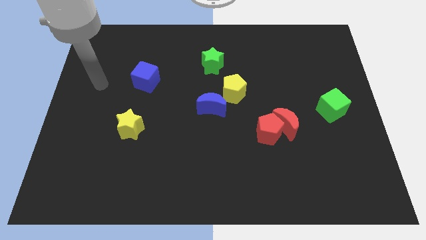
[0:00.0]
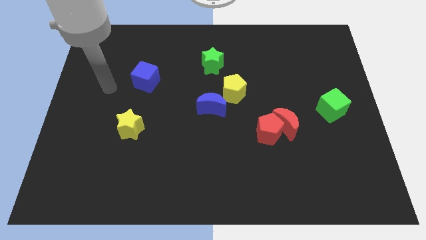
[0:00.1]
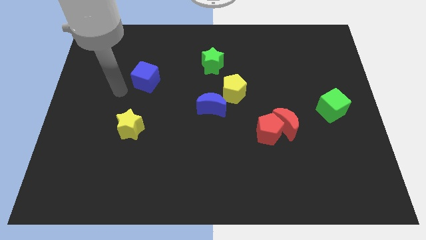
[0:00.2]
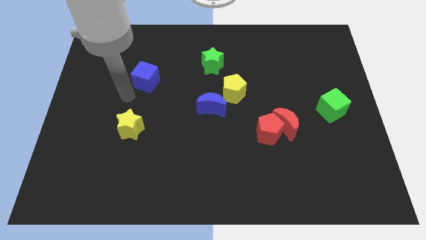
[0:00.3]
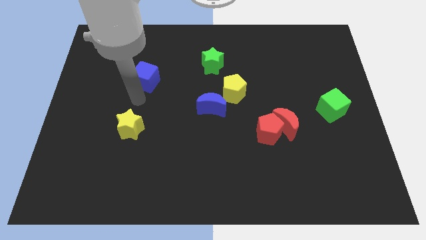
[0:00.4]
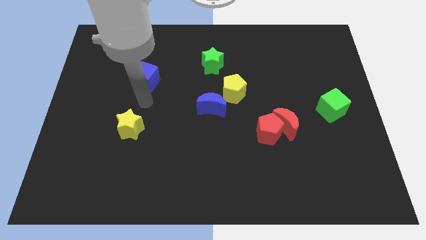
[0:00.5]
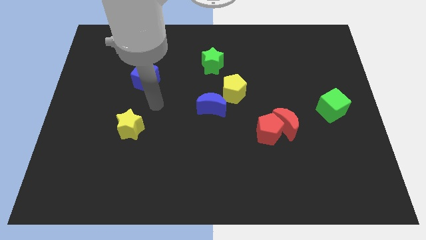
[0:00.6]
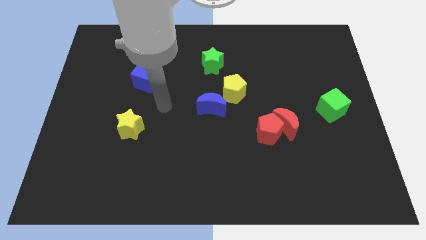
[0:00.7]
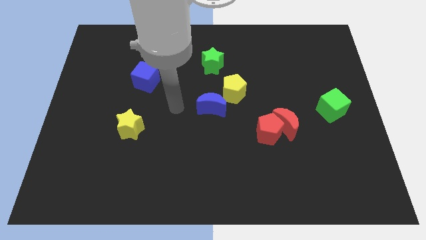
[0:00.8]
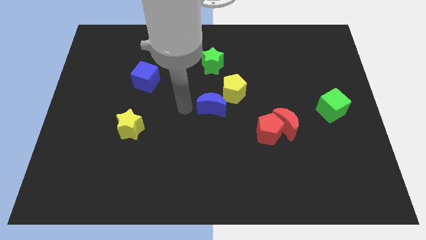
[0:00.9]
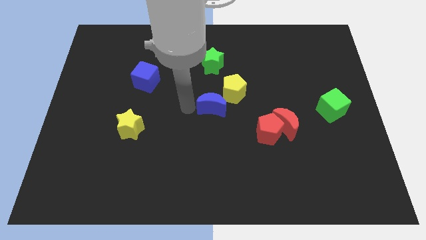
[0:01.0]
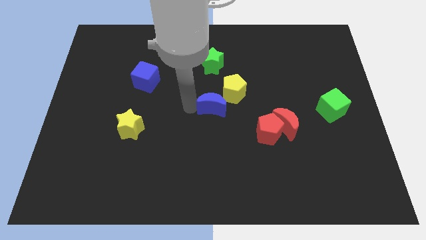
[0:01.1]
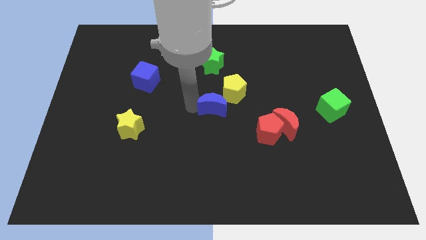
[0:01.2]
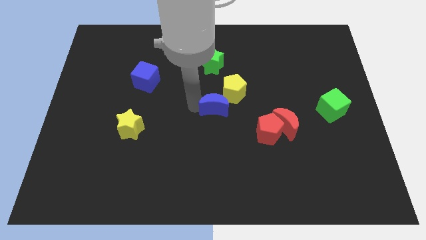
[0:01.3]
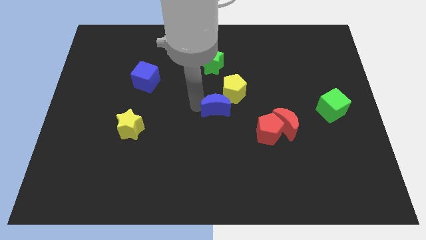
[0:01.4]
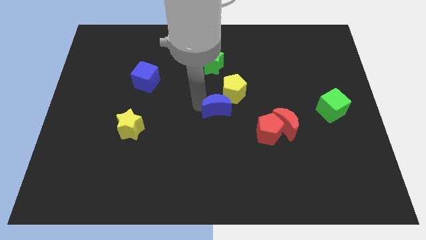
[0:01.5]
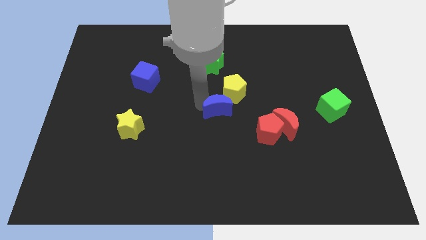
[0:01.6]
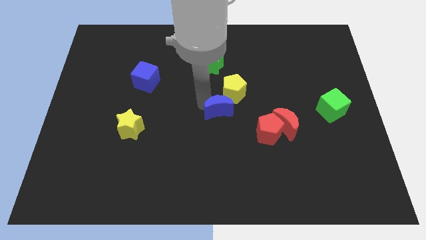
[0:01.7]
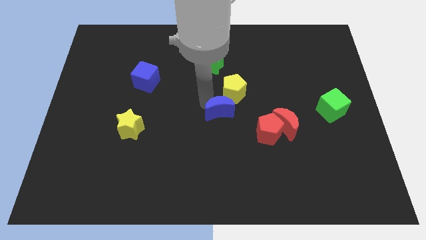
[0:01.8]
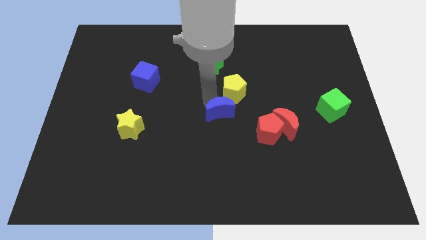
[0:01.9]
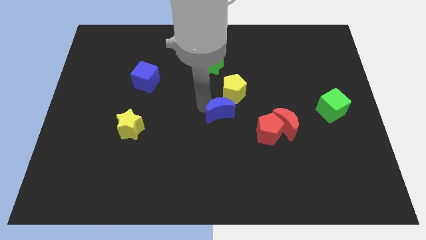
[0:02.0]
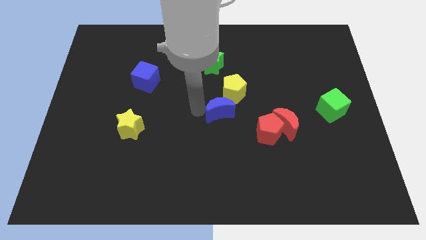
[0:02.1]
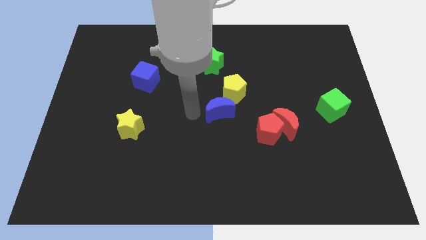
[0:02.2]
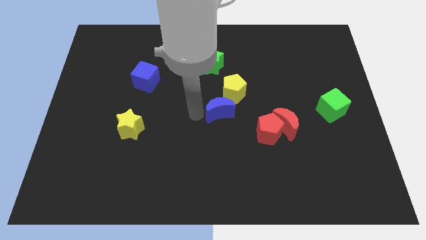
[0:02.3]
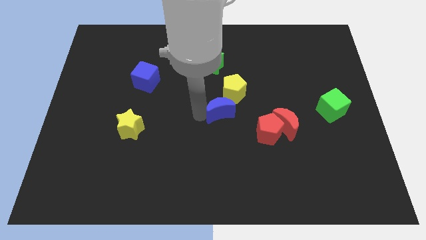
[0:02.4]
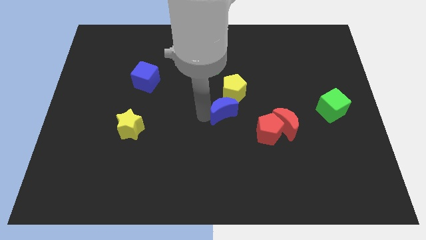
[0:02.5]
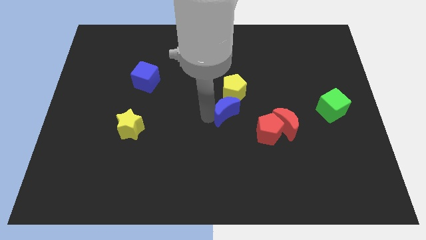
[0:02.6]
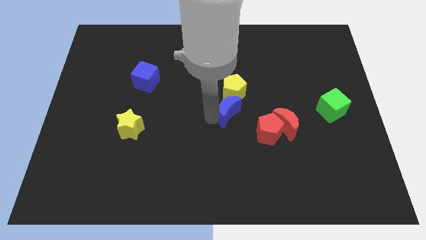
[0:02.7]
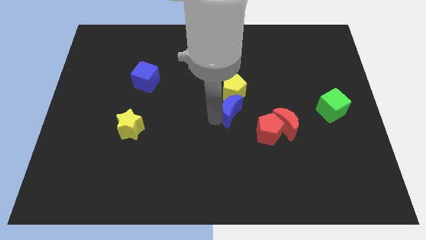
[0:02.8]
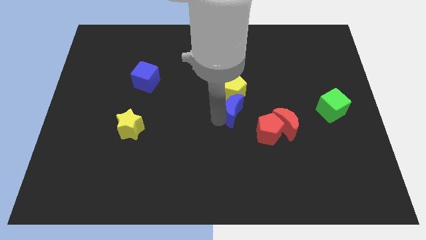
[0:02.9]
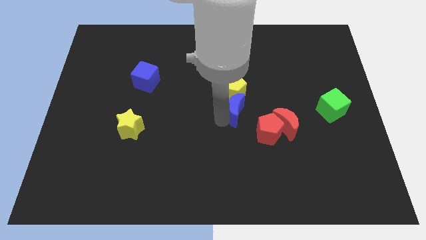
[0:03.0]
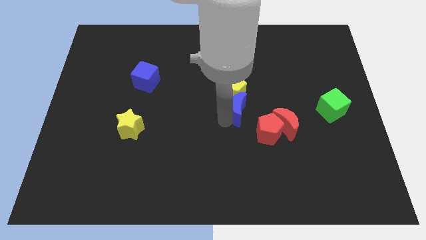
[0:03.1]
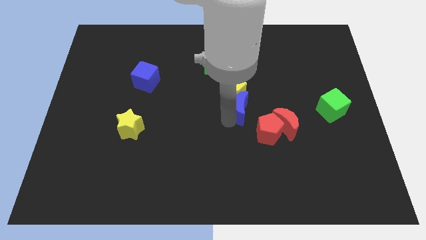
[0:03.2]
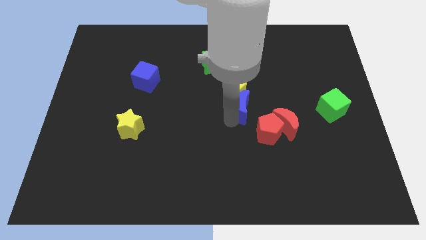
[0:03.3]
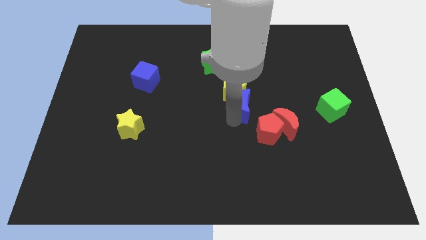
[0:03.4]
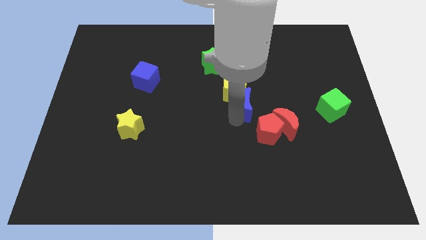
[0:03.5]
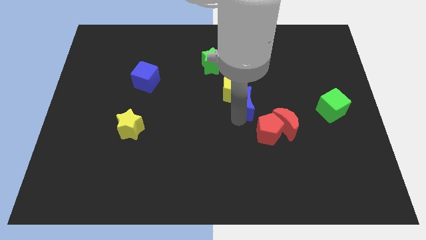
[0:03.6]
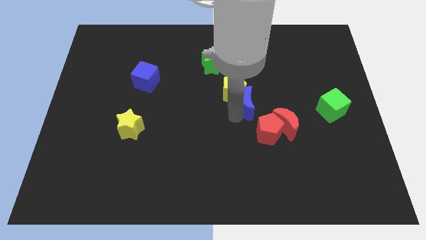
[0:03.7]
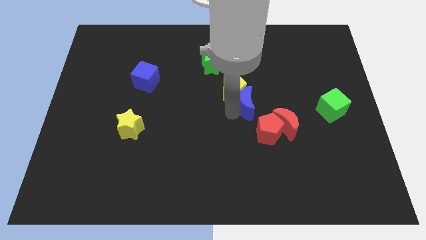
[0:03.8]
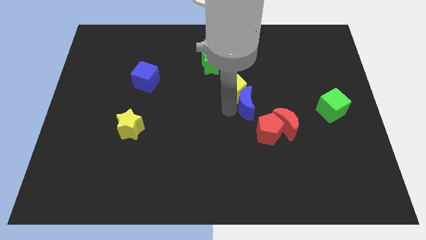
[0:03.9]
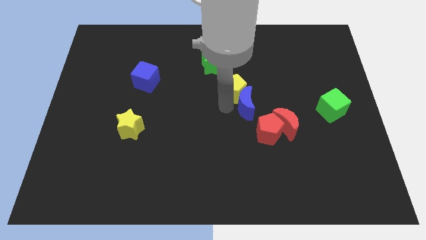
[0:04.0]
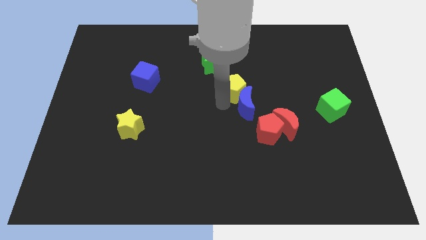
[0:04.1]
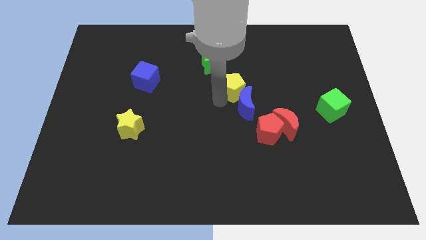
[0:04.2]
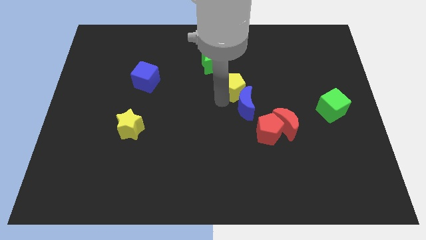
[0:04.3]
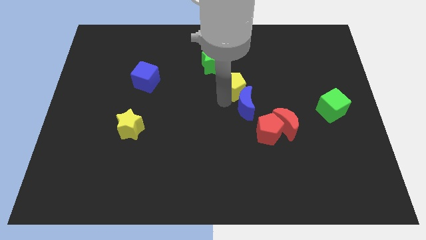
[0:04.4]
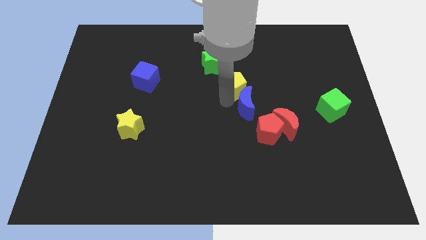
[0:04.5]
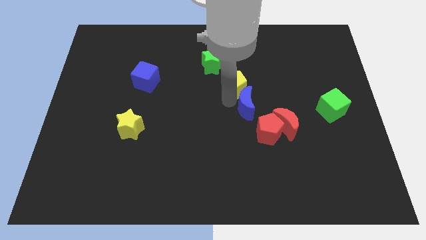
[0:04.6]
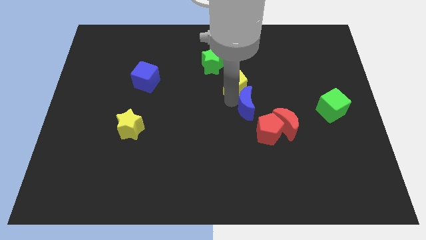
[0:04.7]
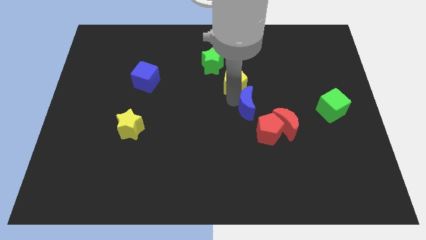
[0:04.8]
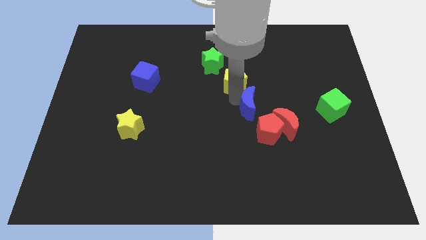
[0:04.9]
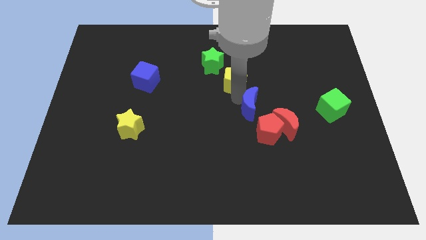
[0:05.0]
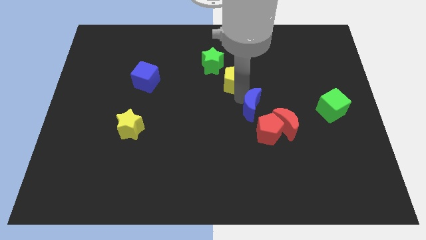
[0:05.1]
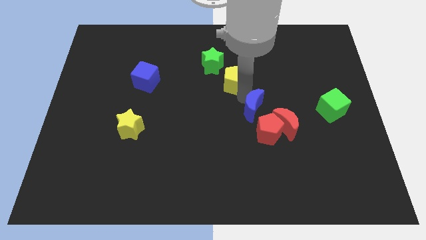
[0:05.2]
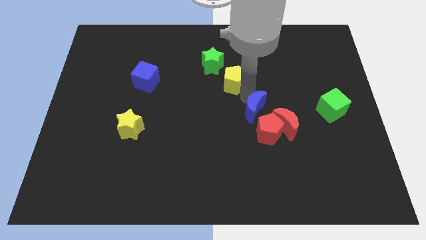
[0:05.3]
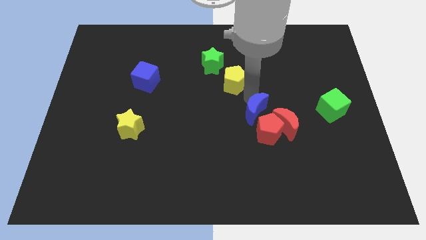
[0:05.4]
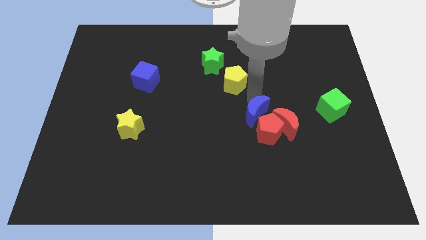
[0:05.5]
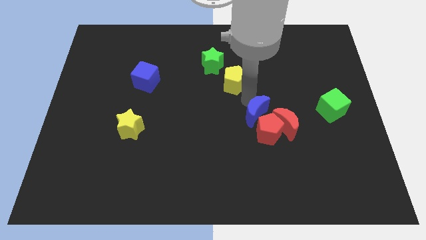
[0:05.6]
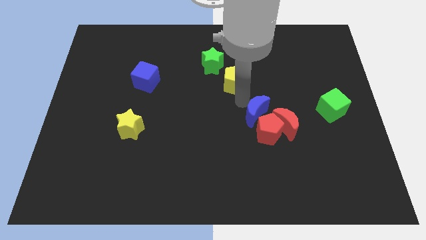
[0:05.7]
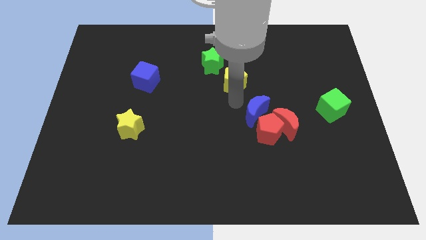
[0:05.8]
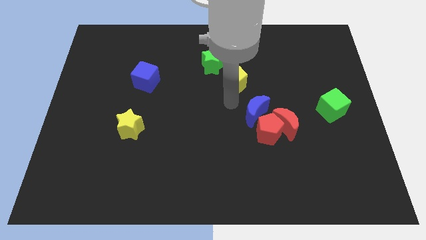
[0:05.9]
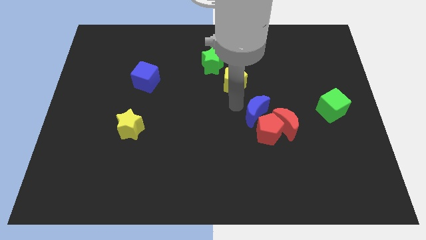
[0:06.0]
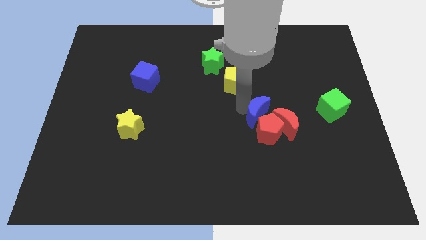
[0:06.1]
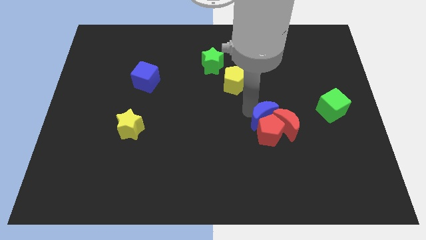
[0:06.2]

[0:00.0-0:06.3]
slide the blue moon to the red moon
